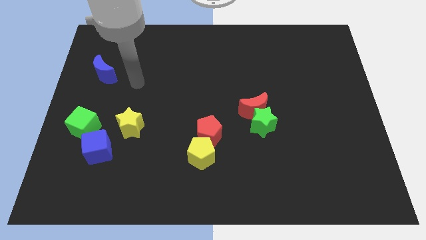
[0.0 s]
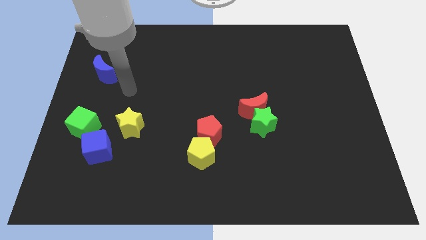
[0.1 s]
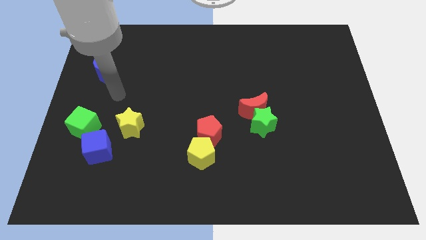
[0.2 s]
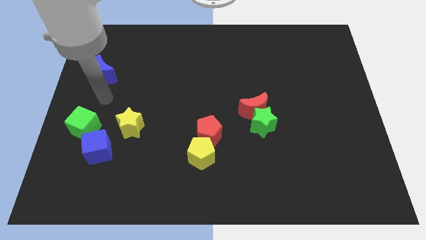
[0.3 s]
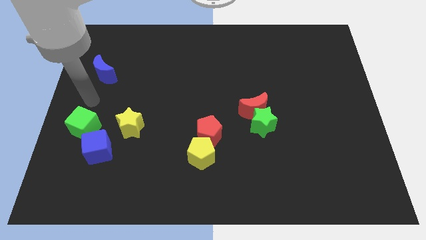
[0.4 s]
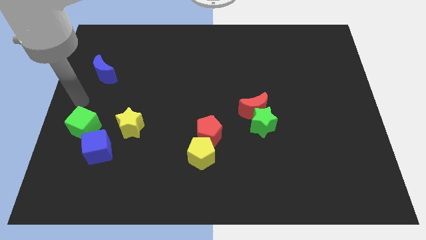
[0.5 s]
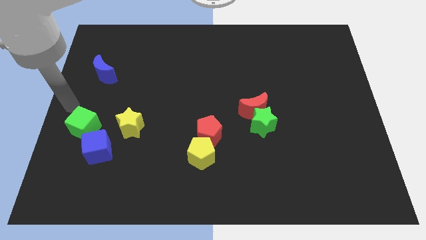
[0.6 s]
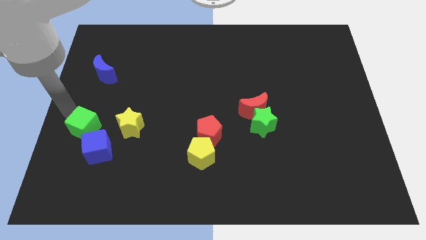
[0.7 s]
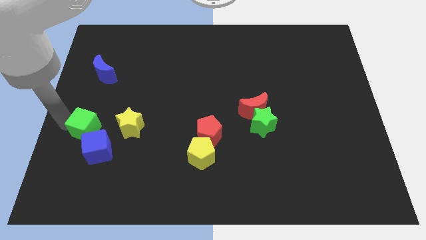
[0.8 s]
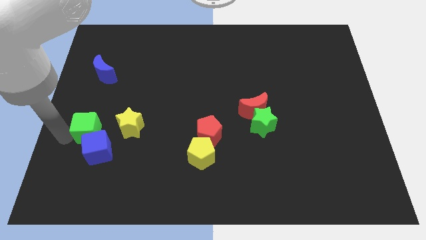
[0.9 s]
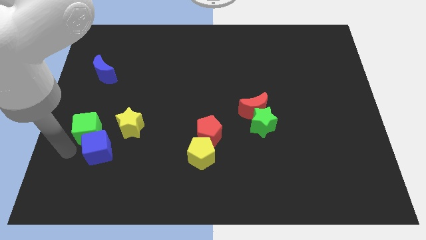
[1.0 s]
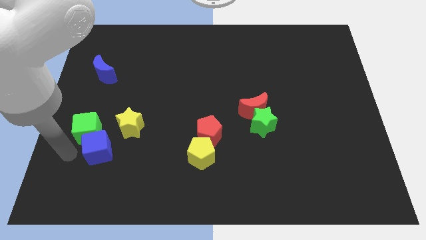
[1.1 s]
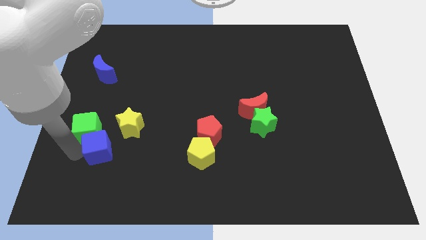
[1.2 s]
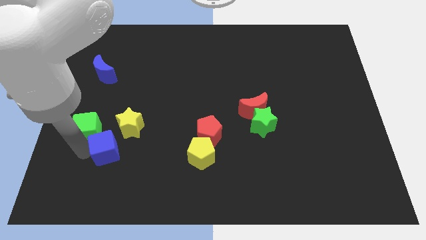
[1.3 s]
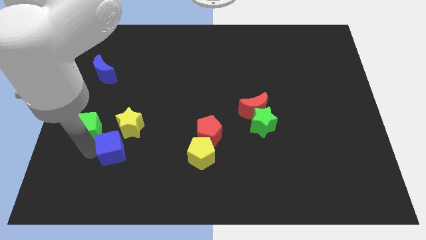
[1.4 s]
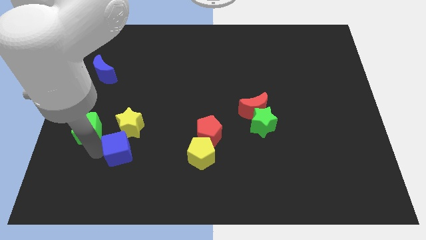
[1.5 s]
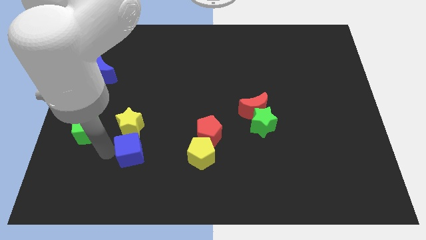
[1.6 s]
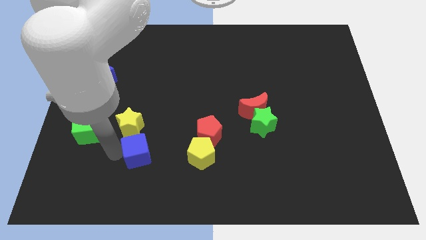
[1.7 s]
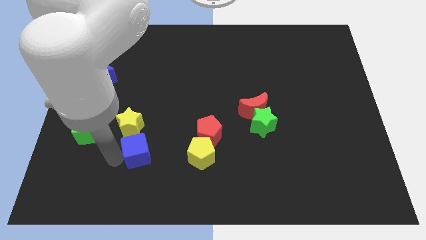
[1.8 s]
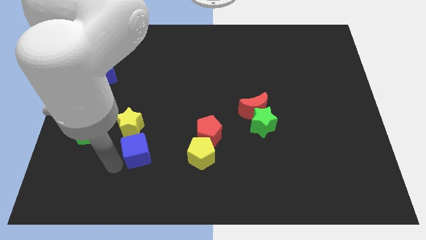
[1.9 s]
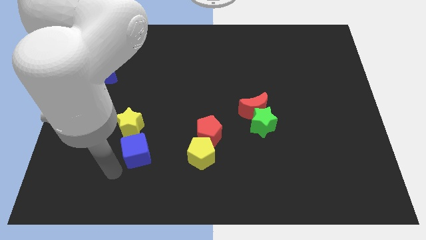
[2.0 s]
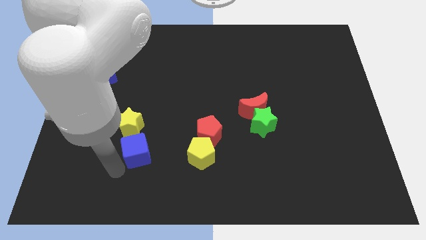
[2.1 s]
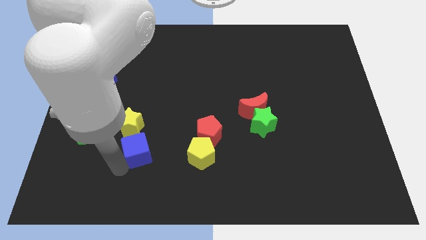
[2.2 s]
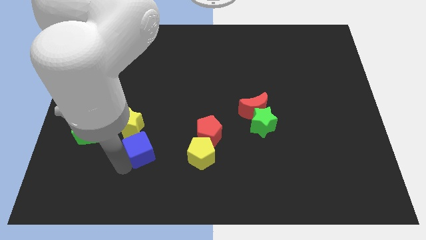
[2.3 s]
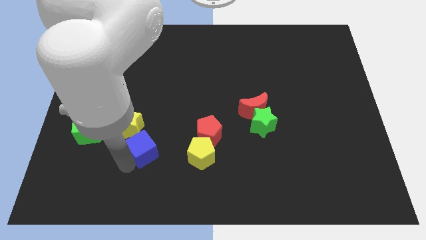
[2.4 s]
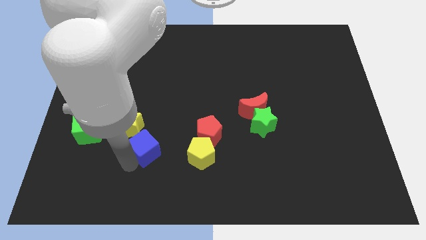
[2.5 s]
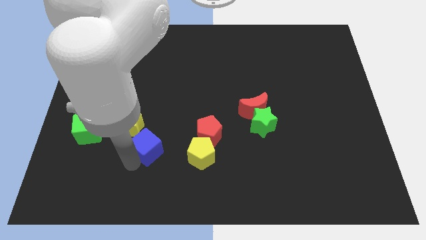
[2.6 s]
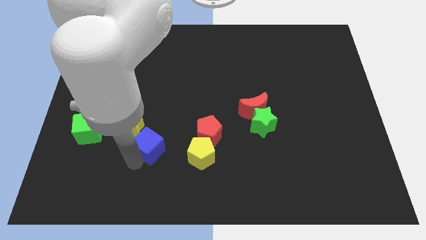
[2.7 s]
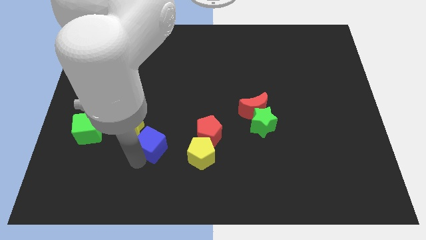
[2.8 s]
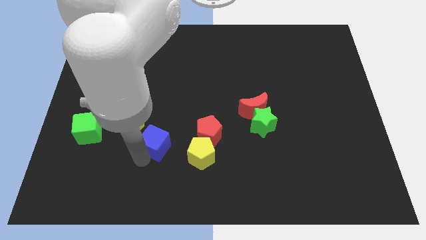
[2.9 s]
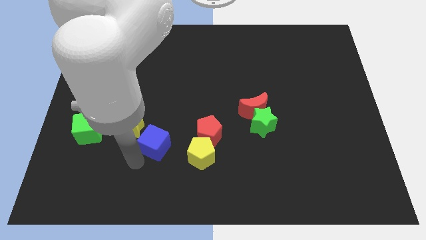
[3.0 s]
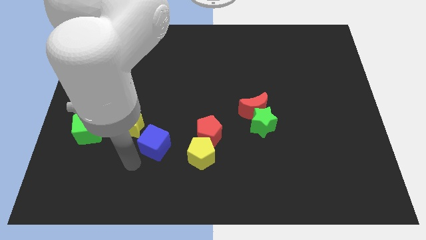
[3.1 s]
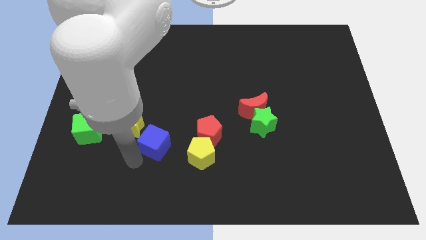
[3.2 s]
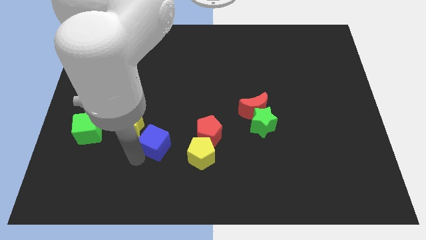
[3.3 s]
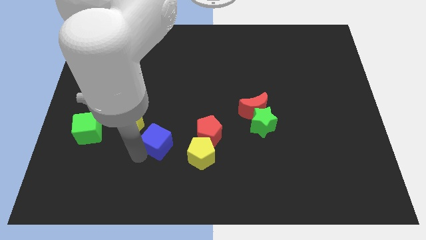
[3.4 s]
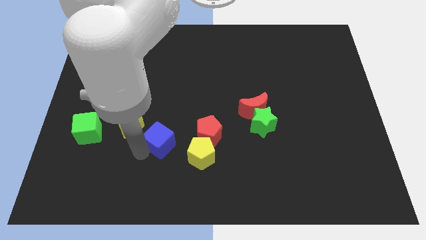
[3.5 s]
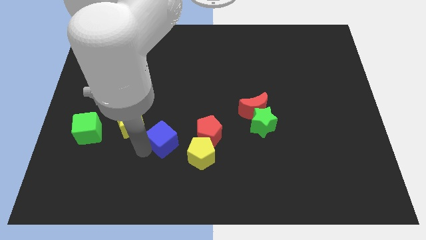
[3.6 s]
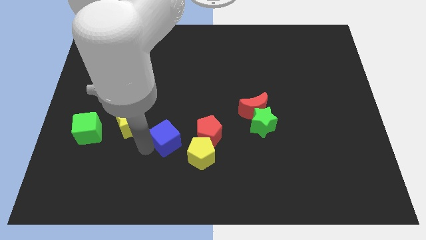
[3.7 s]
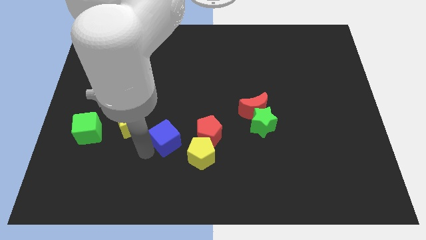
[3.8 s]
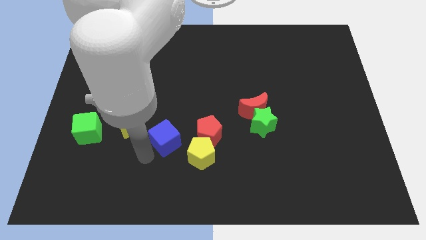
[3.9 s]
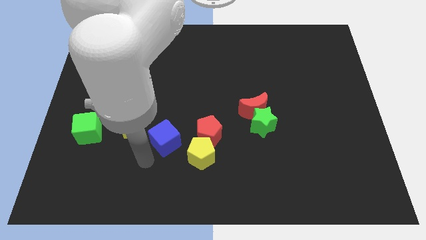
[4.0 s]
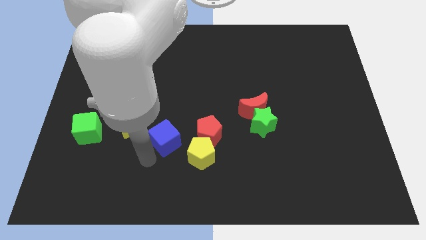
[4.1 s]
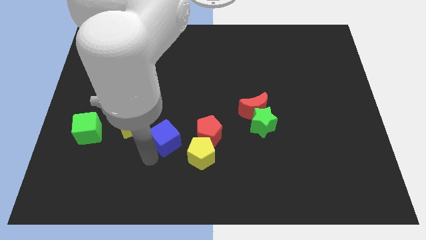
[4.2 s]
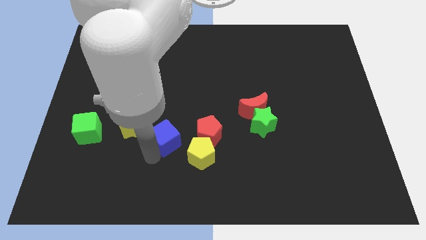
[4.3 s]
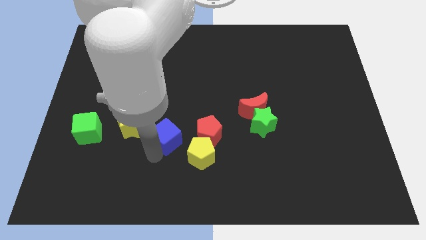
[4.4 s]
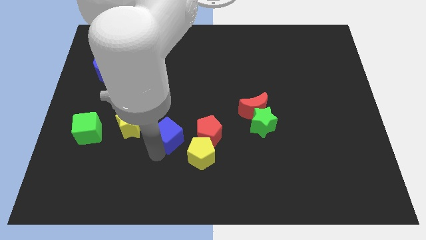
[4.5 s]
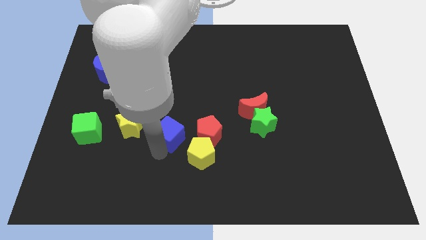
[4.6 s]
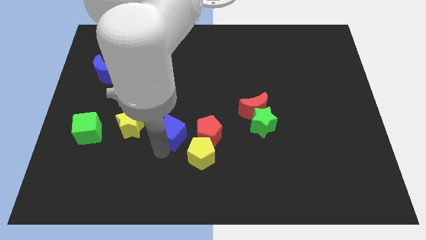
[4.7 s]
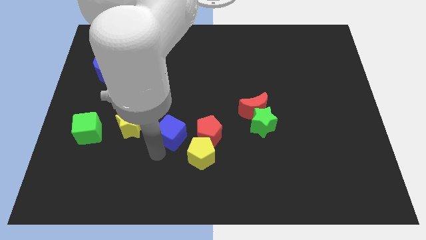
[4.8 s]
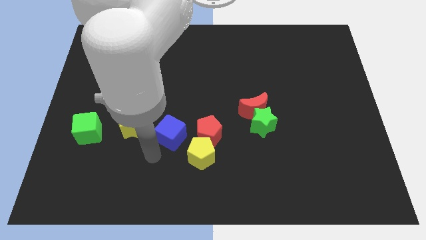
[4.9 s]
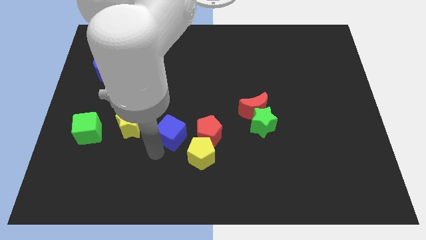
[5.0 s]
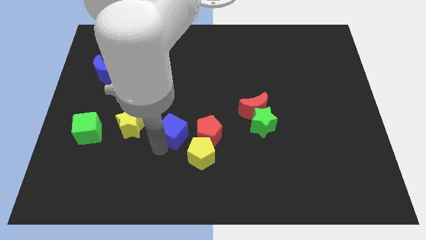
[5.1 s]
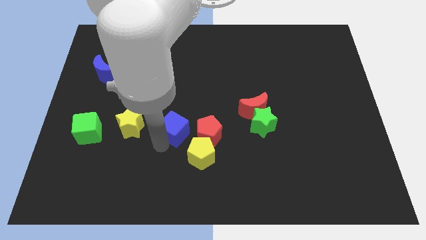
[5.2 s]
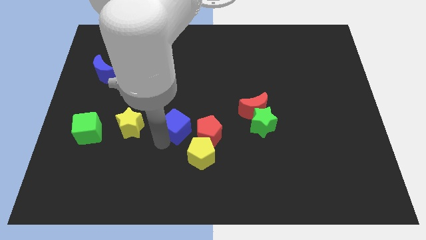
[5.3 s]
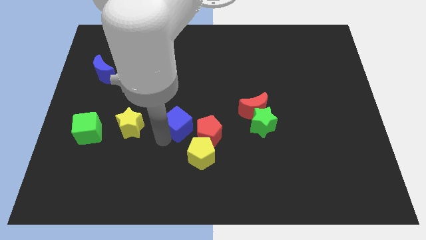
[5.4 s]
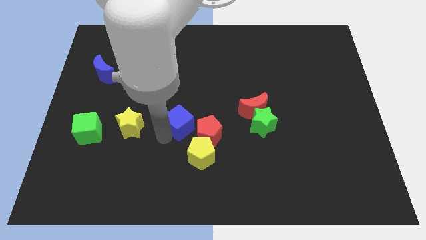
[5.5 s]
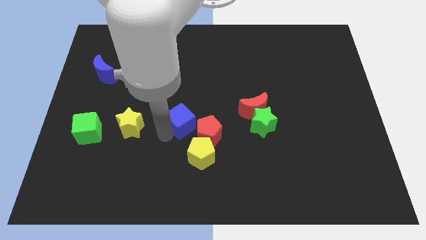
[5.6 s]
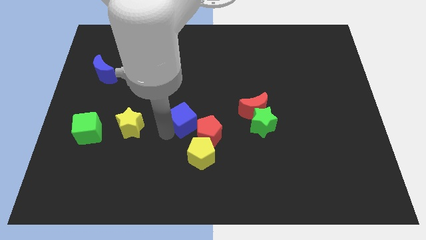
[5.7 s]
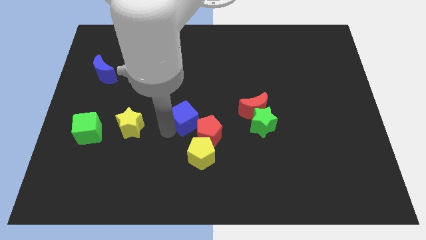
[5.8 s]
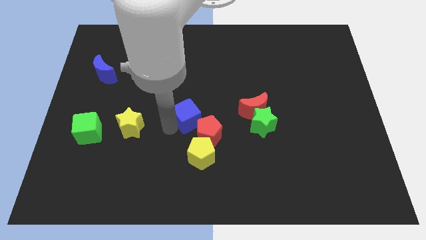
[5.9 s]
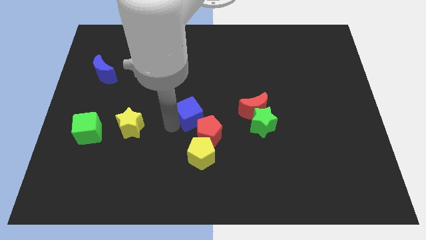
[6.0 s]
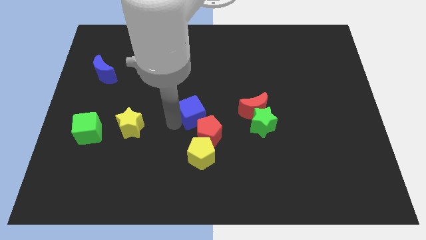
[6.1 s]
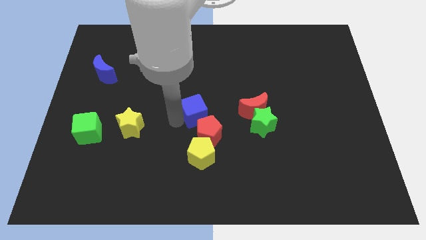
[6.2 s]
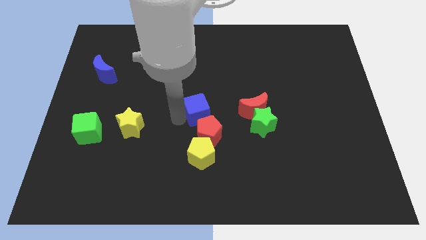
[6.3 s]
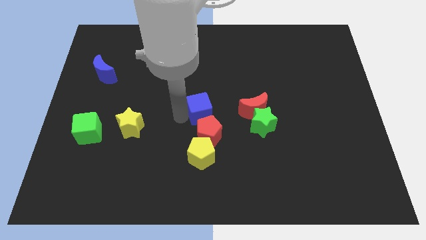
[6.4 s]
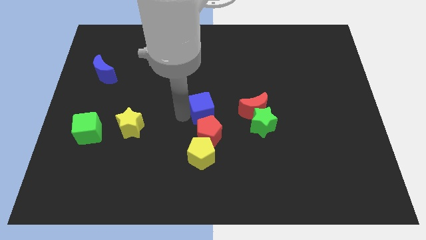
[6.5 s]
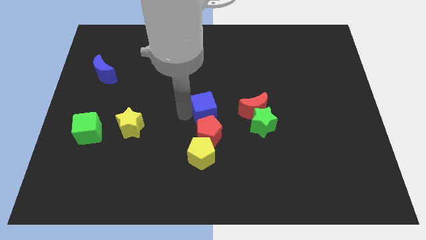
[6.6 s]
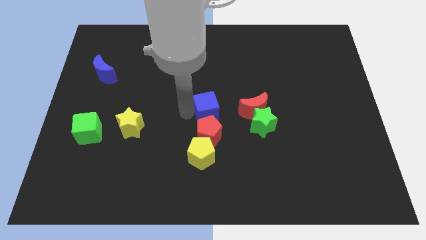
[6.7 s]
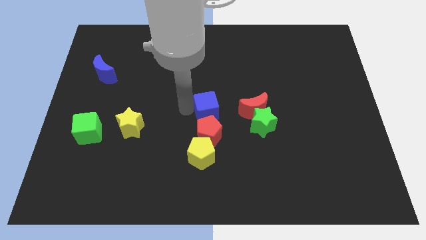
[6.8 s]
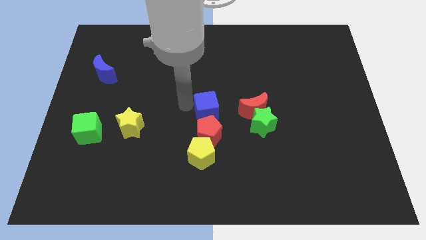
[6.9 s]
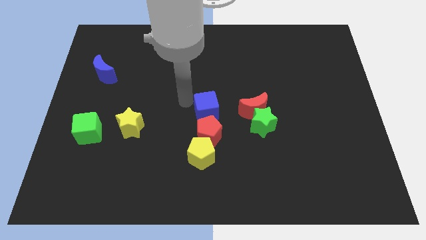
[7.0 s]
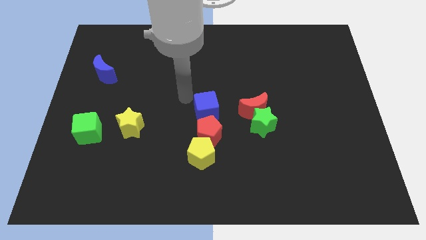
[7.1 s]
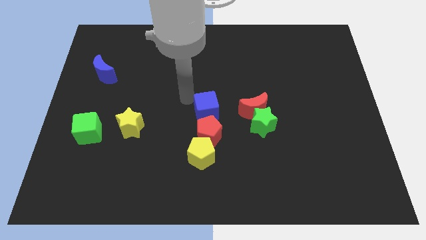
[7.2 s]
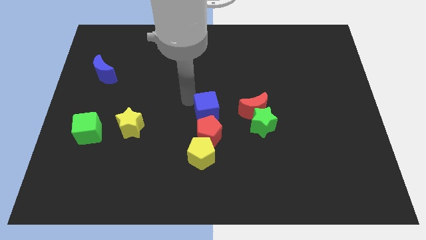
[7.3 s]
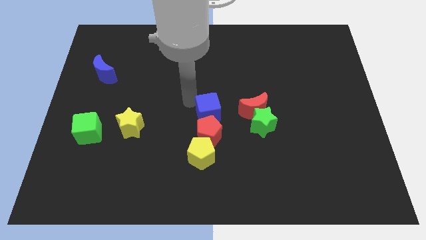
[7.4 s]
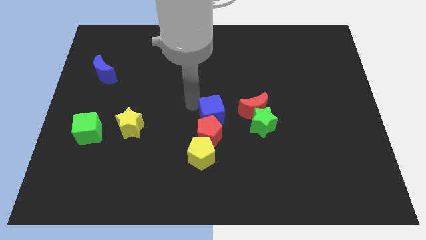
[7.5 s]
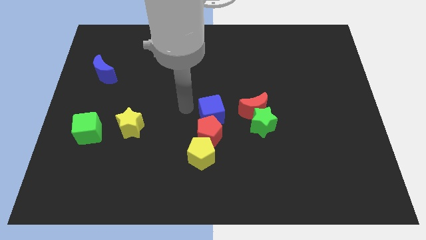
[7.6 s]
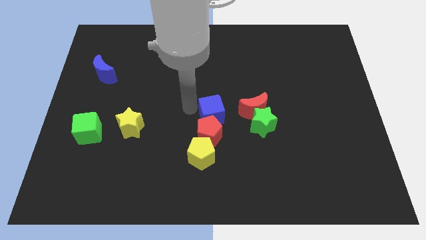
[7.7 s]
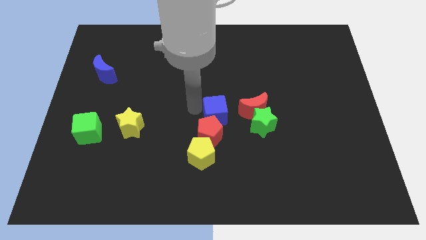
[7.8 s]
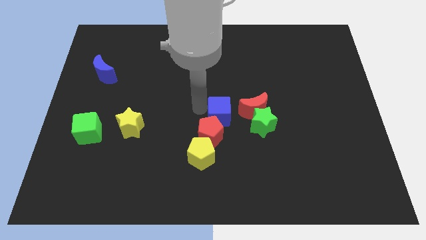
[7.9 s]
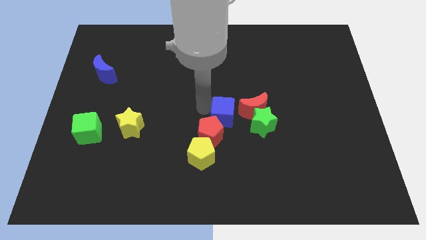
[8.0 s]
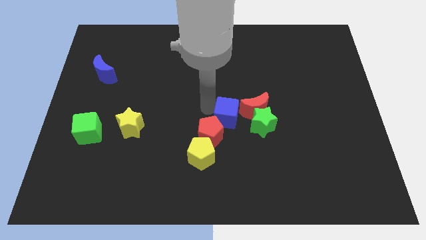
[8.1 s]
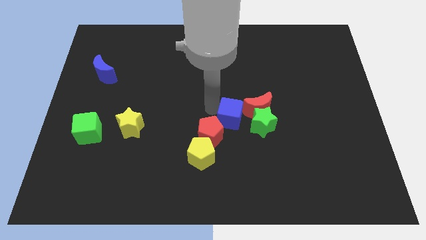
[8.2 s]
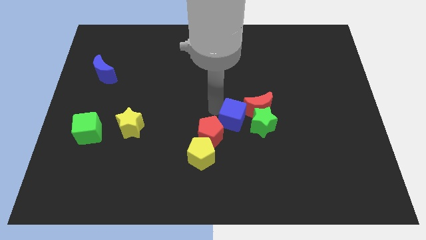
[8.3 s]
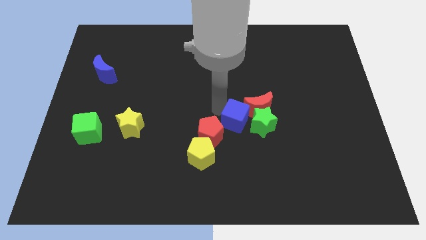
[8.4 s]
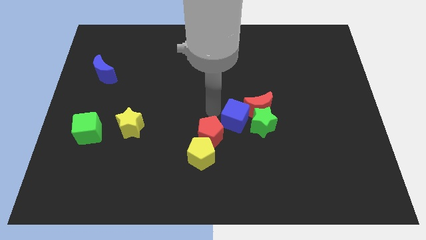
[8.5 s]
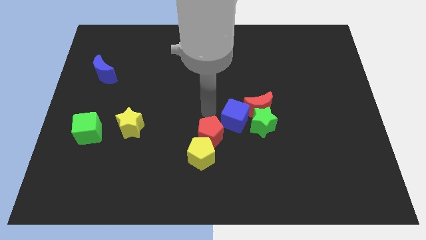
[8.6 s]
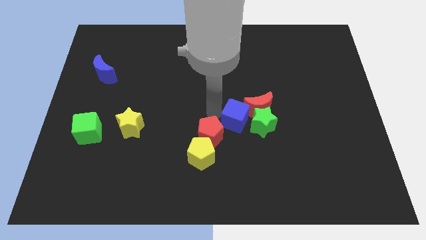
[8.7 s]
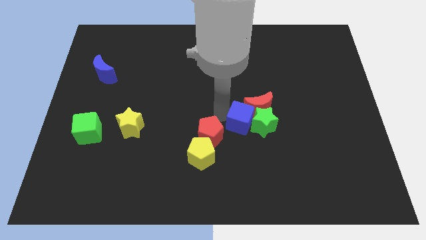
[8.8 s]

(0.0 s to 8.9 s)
push the blue cube towards the green star
